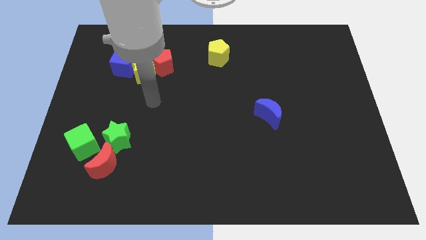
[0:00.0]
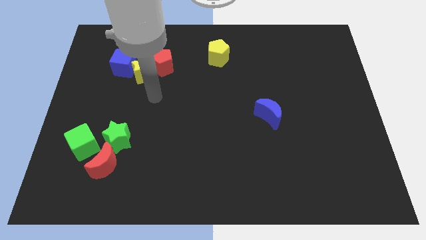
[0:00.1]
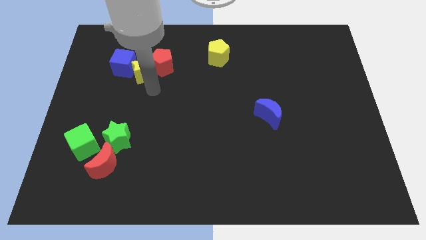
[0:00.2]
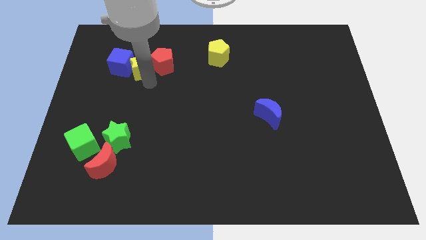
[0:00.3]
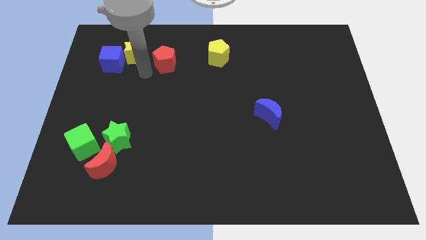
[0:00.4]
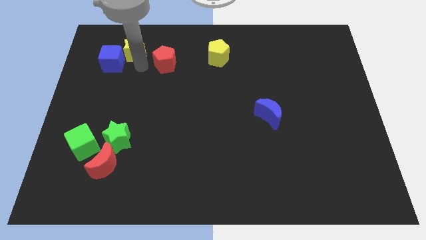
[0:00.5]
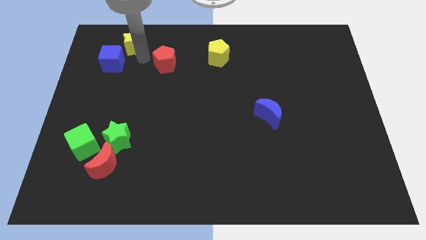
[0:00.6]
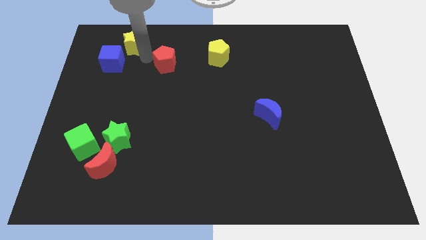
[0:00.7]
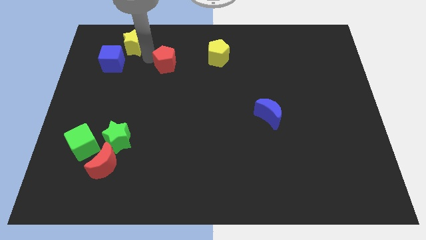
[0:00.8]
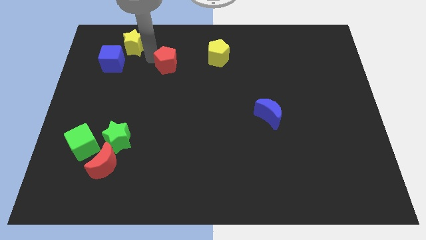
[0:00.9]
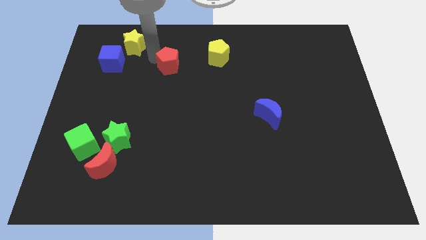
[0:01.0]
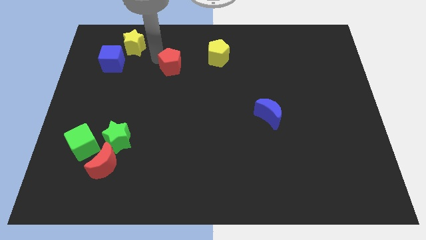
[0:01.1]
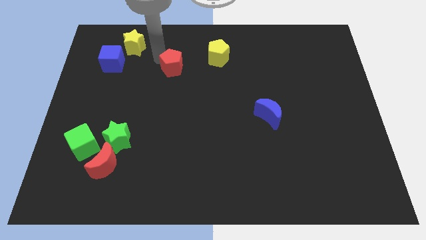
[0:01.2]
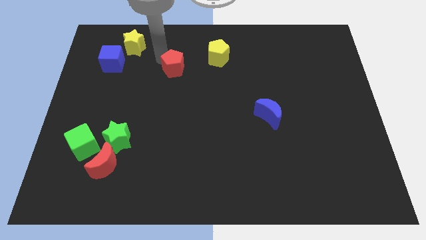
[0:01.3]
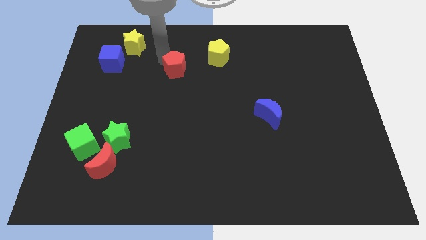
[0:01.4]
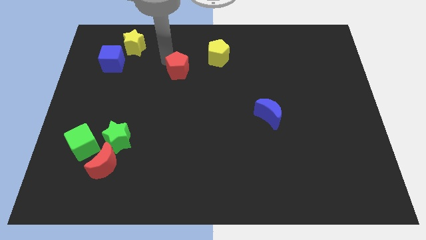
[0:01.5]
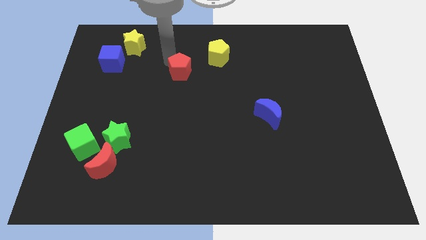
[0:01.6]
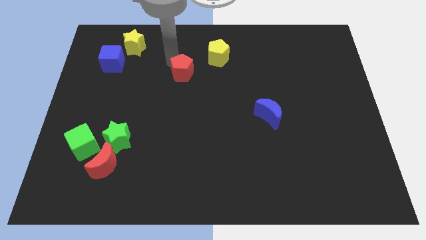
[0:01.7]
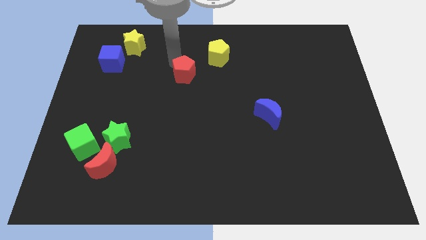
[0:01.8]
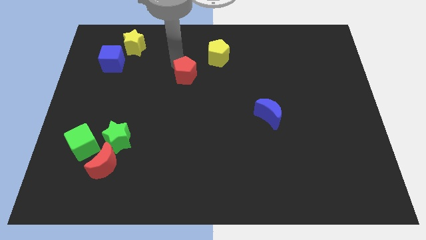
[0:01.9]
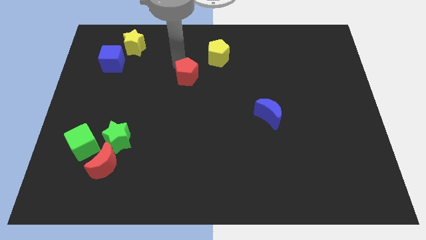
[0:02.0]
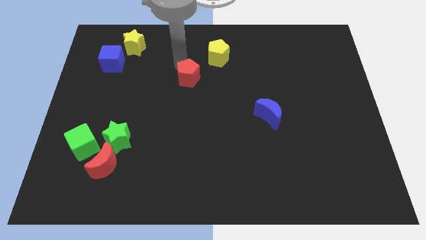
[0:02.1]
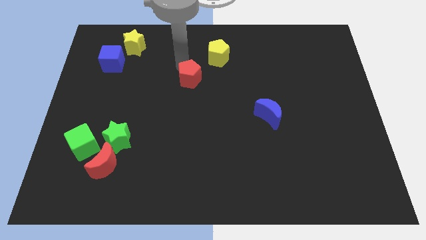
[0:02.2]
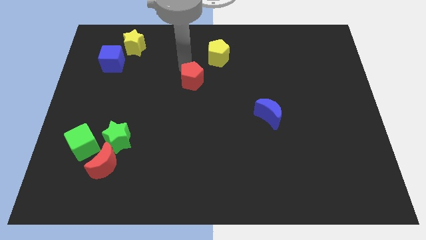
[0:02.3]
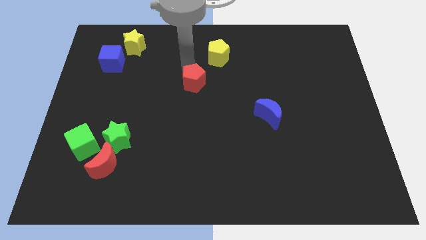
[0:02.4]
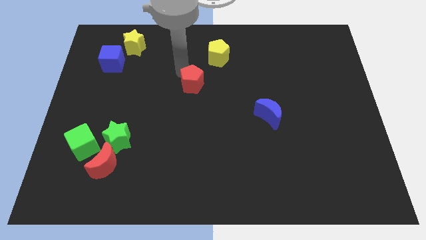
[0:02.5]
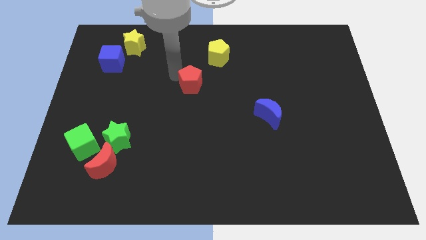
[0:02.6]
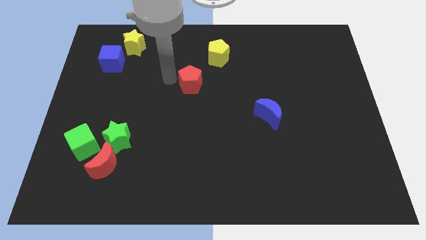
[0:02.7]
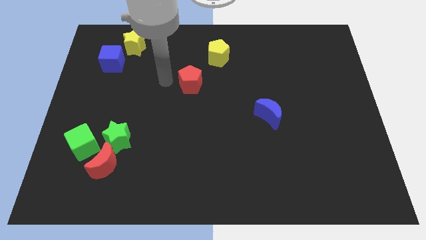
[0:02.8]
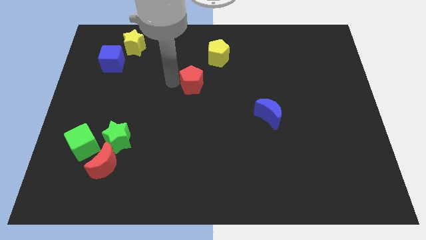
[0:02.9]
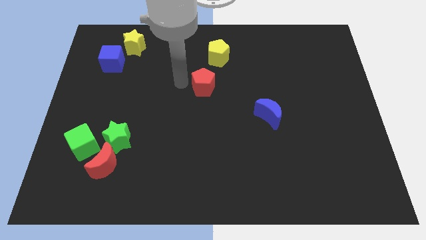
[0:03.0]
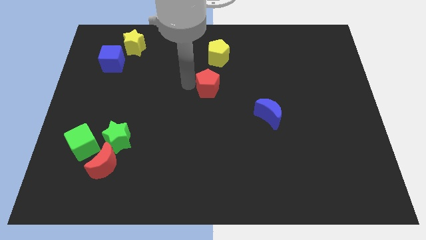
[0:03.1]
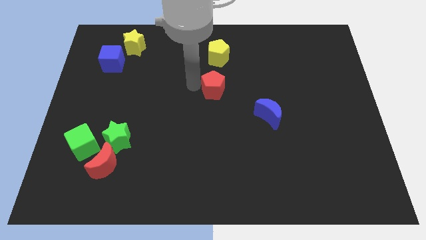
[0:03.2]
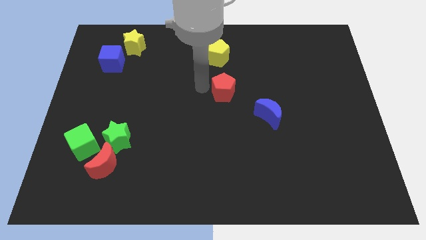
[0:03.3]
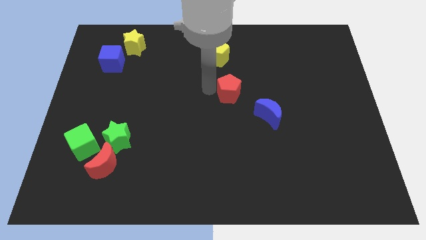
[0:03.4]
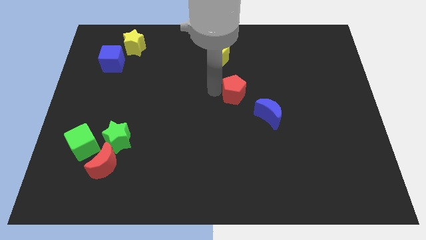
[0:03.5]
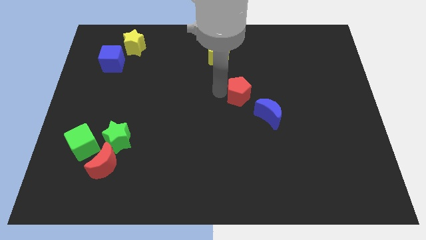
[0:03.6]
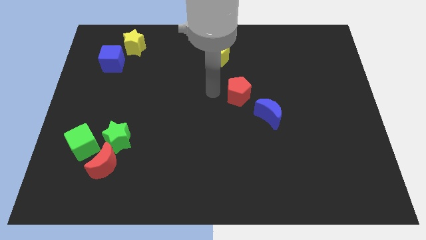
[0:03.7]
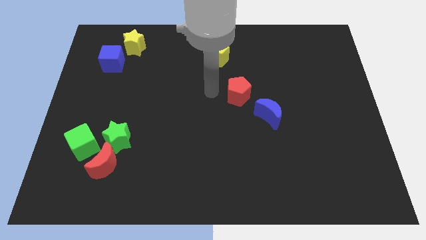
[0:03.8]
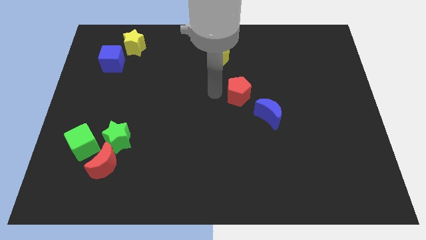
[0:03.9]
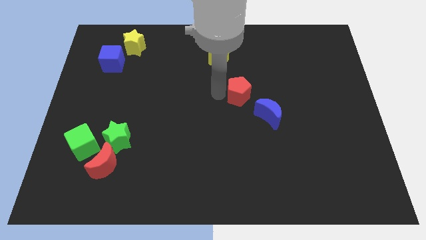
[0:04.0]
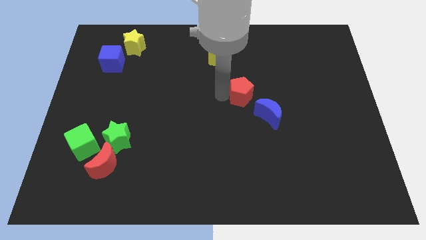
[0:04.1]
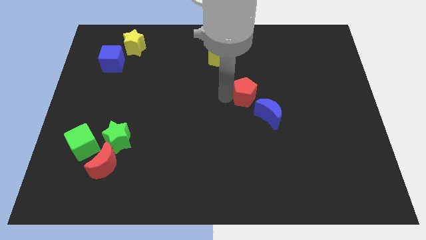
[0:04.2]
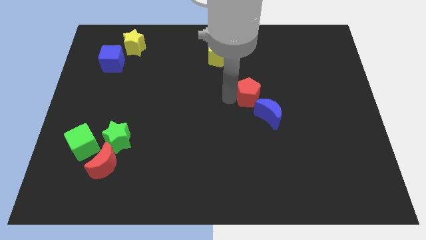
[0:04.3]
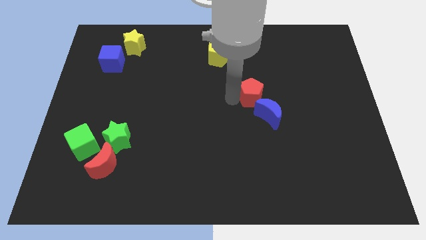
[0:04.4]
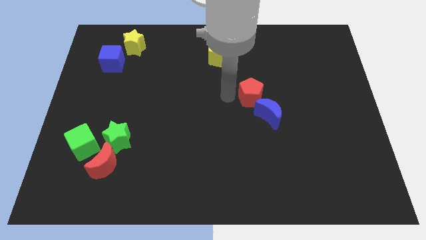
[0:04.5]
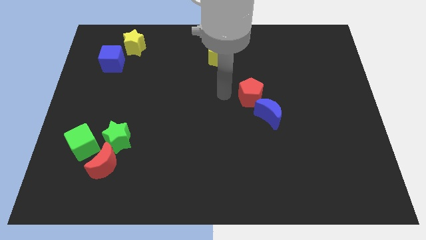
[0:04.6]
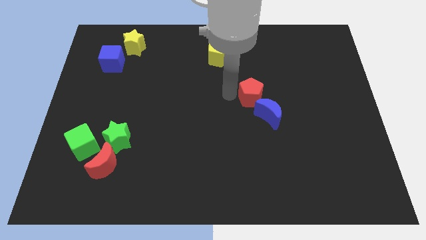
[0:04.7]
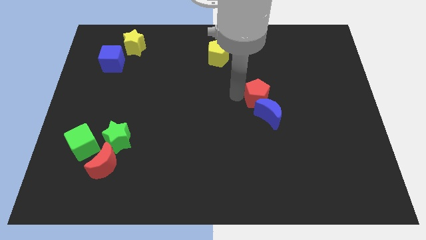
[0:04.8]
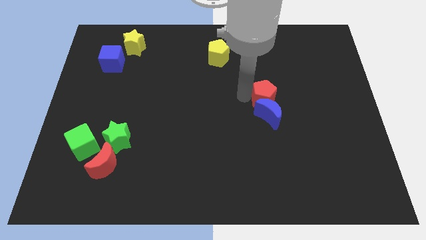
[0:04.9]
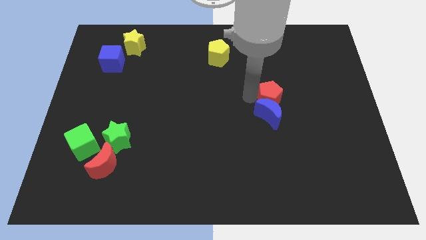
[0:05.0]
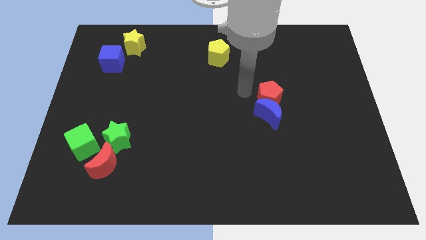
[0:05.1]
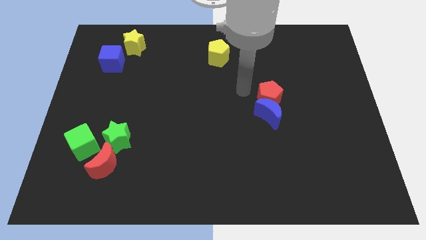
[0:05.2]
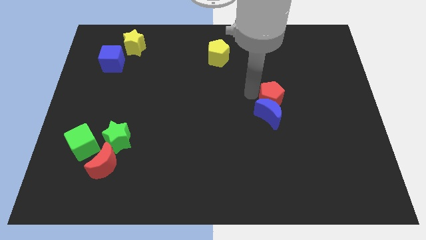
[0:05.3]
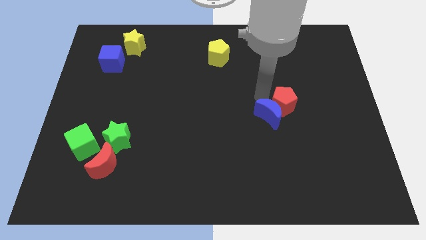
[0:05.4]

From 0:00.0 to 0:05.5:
slide the red pentagon right of the blue moon

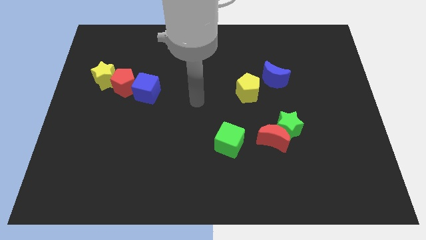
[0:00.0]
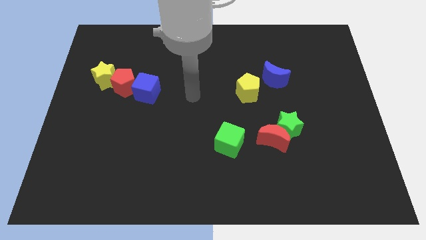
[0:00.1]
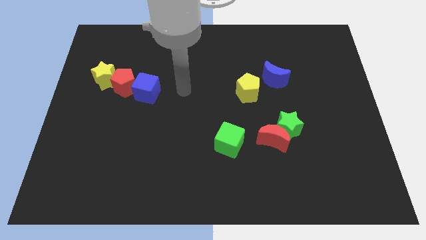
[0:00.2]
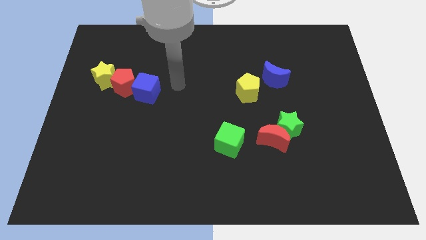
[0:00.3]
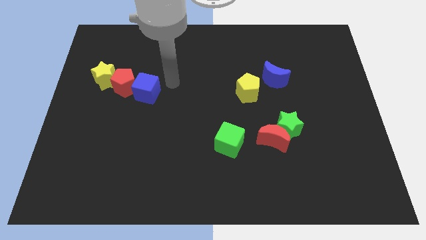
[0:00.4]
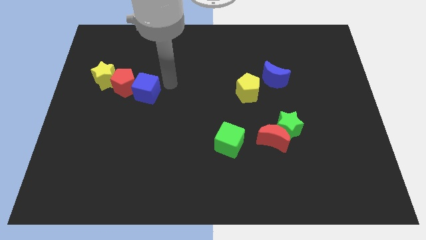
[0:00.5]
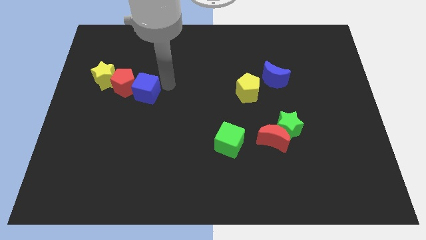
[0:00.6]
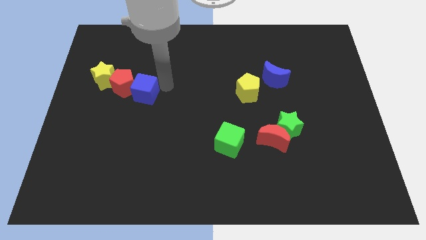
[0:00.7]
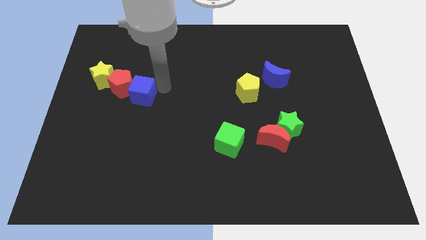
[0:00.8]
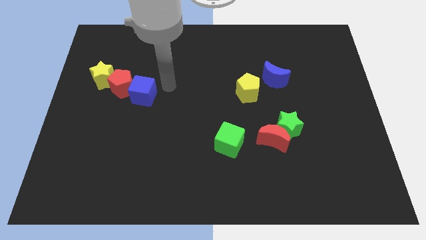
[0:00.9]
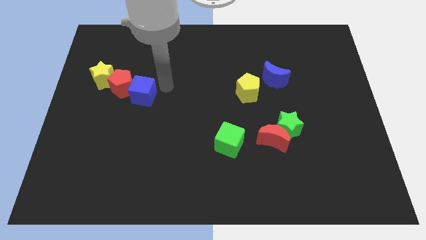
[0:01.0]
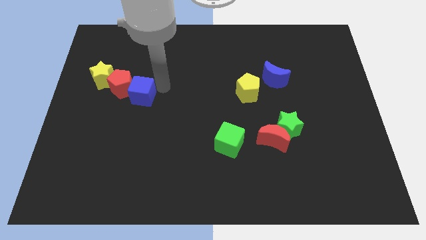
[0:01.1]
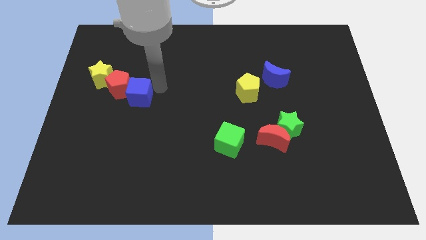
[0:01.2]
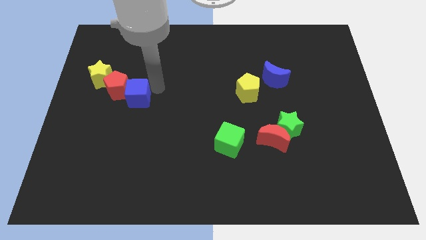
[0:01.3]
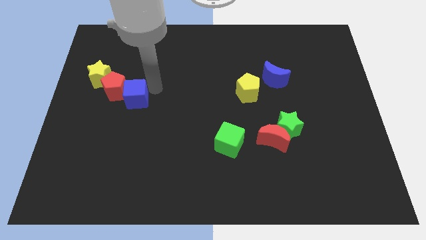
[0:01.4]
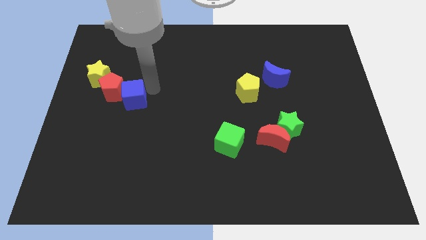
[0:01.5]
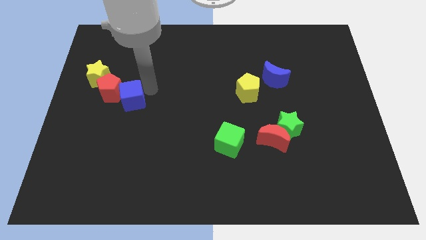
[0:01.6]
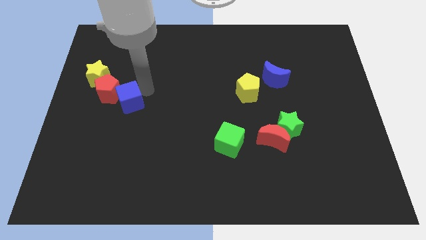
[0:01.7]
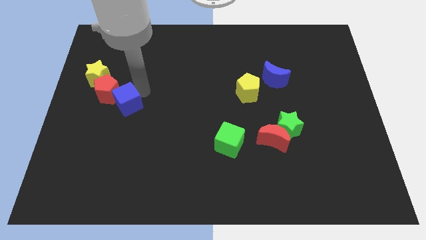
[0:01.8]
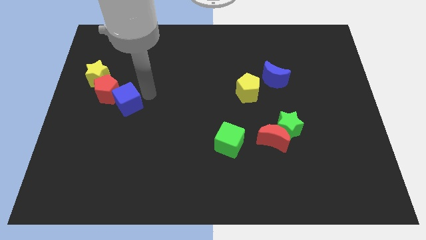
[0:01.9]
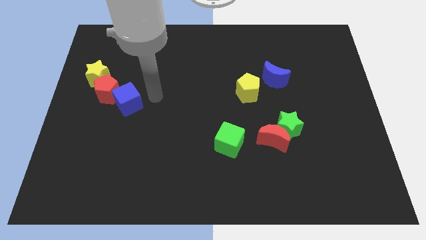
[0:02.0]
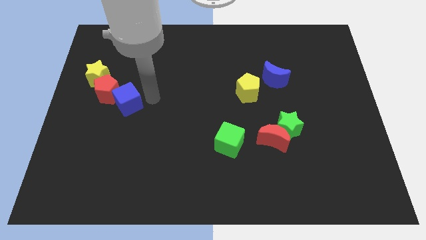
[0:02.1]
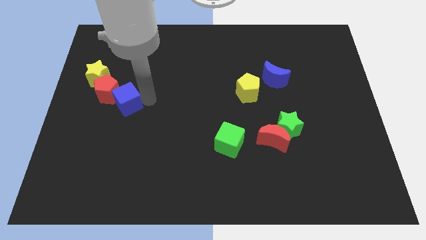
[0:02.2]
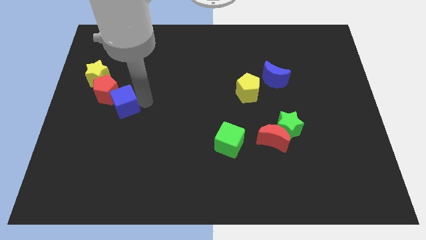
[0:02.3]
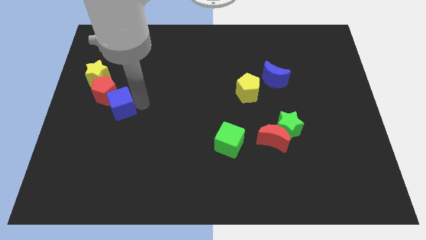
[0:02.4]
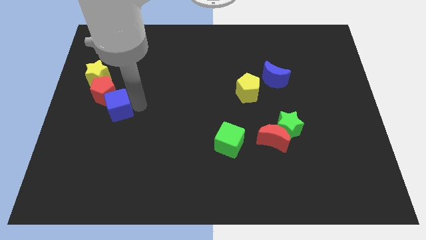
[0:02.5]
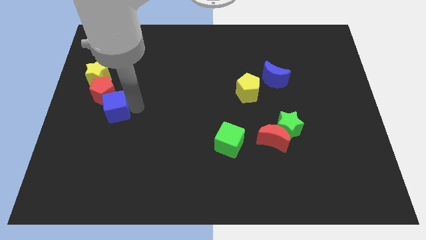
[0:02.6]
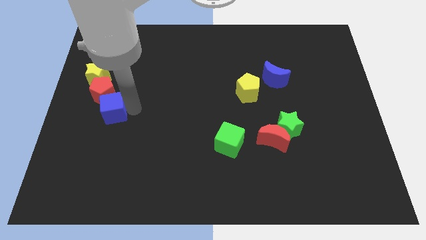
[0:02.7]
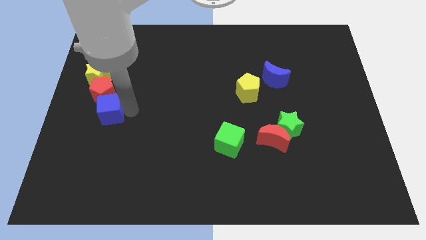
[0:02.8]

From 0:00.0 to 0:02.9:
move the blue cube to the bottom side of the yellow star
